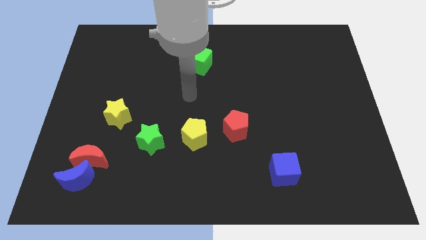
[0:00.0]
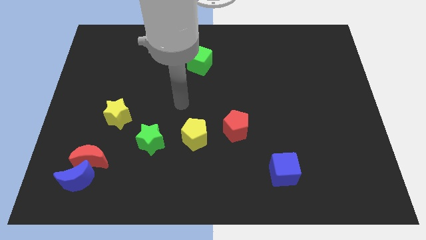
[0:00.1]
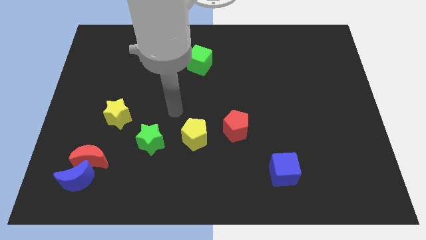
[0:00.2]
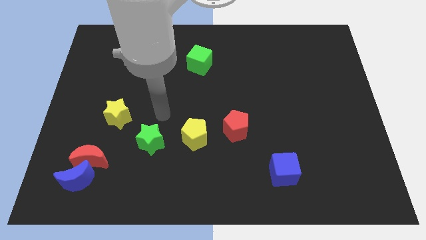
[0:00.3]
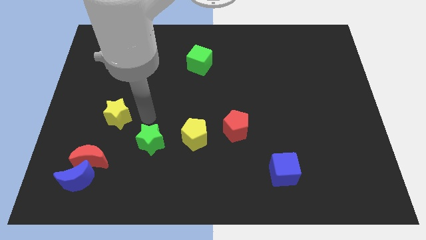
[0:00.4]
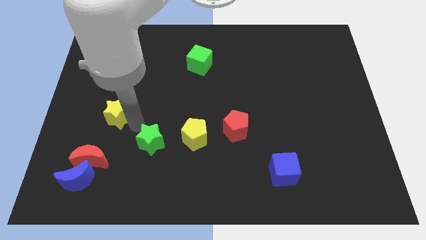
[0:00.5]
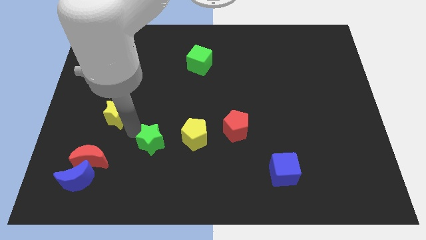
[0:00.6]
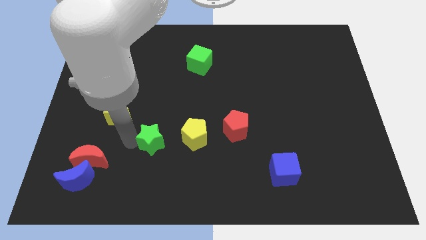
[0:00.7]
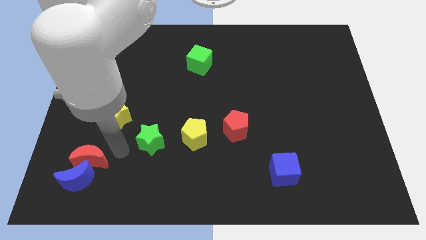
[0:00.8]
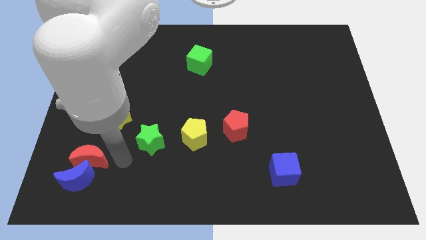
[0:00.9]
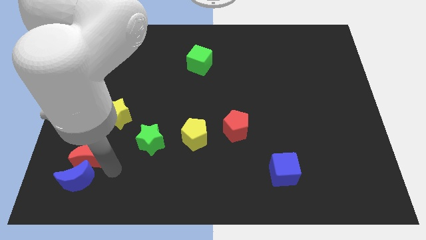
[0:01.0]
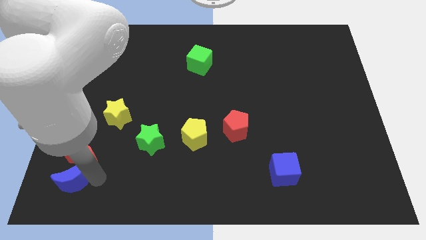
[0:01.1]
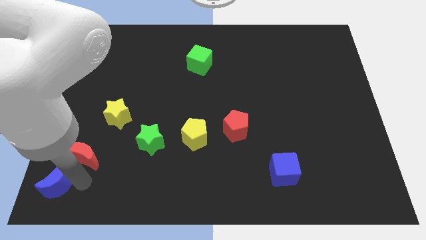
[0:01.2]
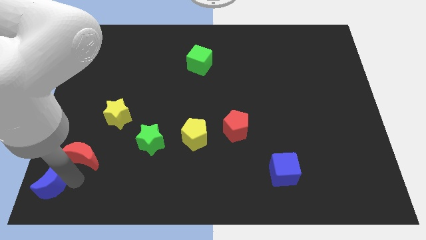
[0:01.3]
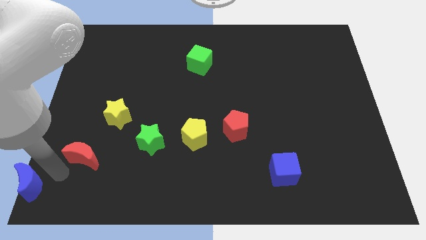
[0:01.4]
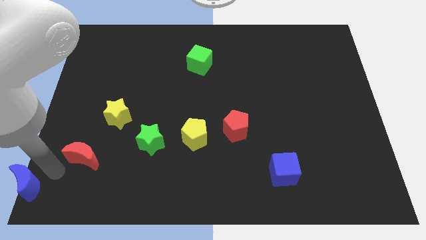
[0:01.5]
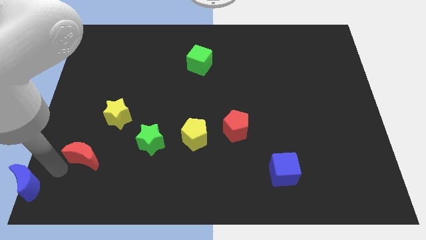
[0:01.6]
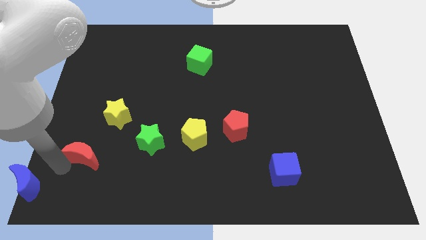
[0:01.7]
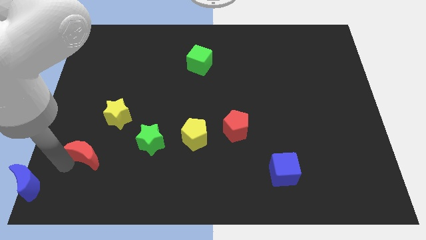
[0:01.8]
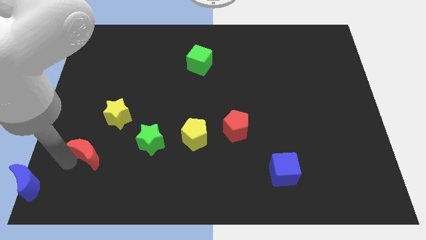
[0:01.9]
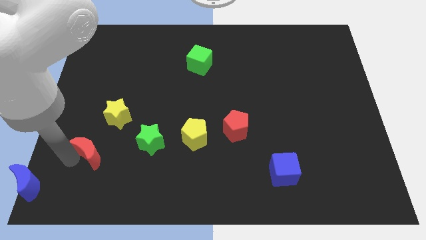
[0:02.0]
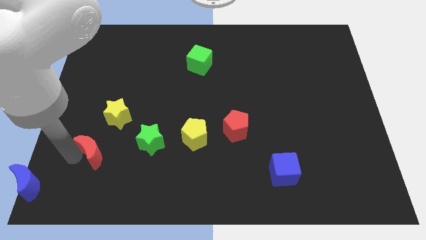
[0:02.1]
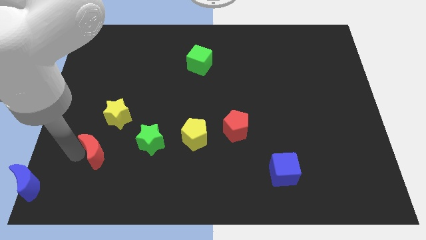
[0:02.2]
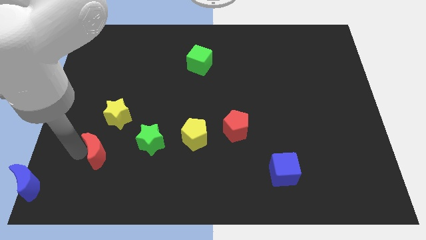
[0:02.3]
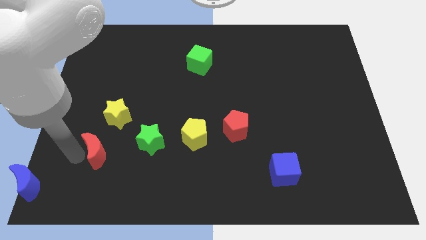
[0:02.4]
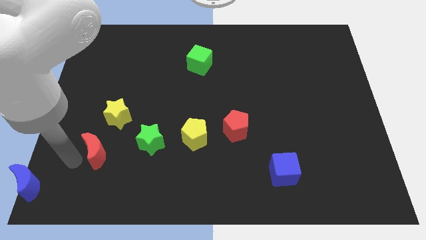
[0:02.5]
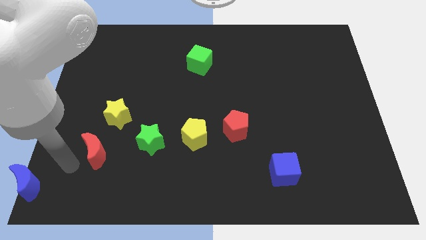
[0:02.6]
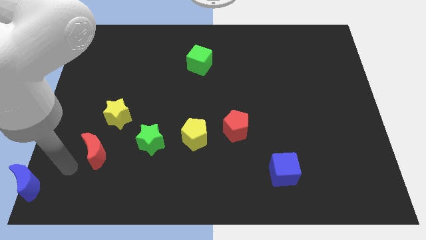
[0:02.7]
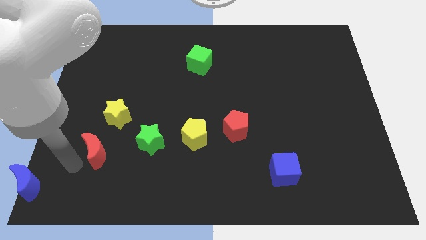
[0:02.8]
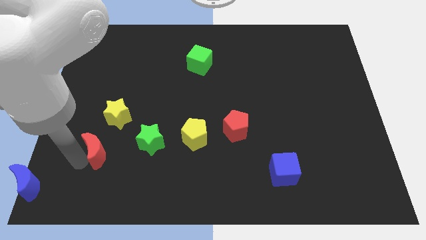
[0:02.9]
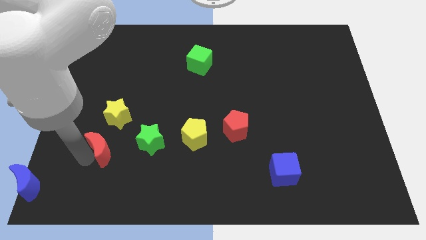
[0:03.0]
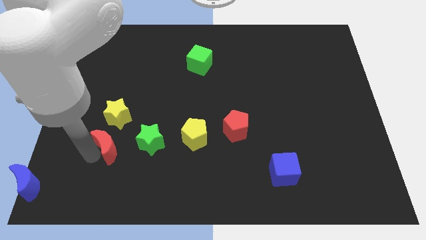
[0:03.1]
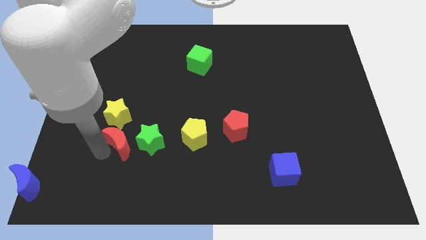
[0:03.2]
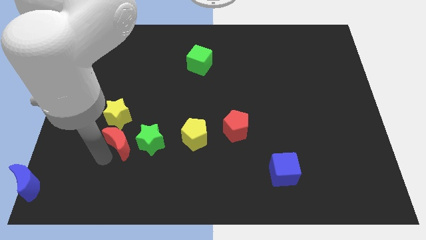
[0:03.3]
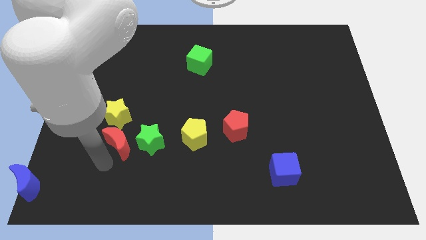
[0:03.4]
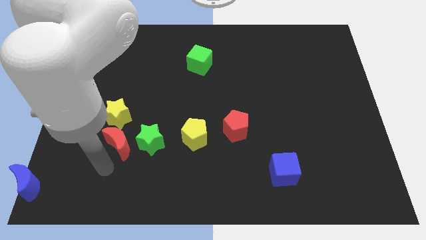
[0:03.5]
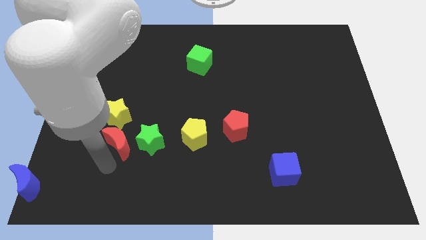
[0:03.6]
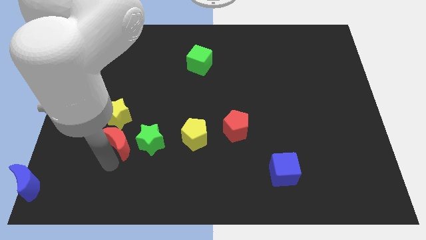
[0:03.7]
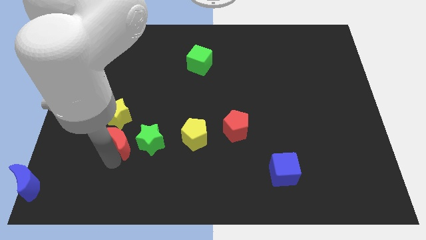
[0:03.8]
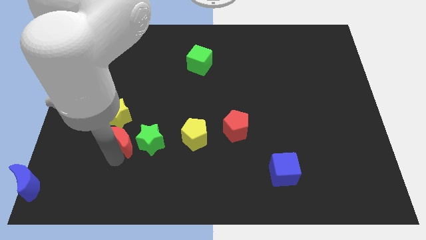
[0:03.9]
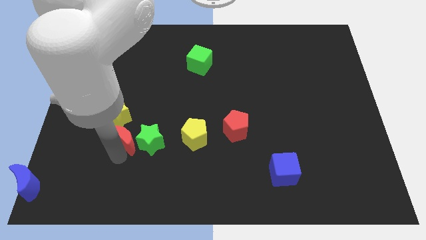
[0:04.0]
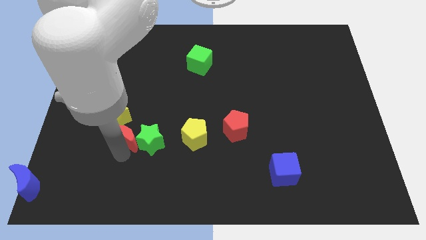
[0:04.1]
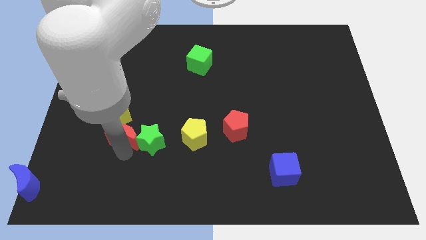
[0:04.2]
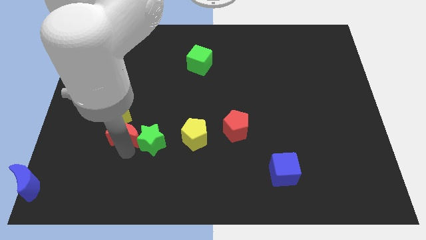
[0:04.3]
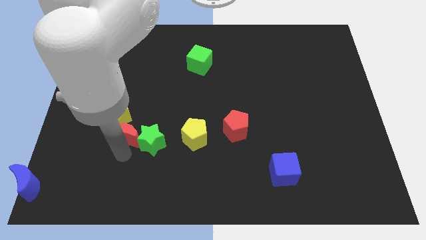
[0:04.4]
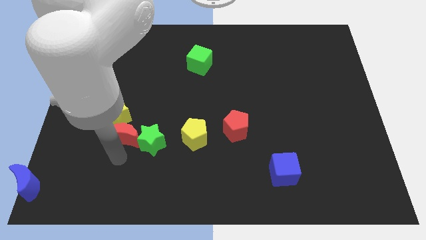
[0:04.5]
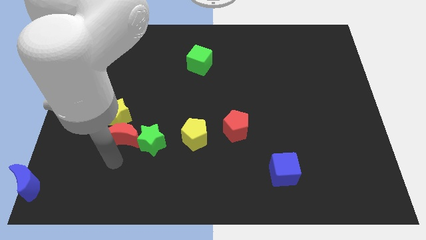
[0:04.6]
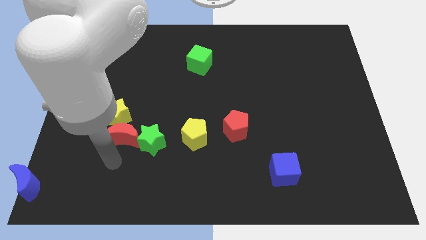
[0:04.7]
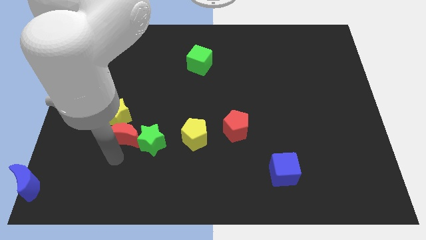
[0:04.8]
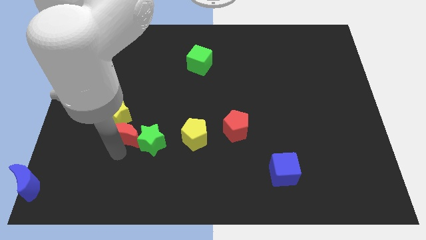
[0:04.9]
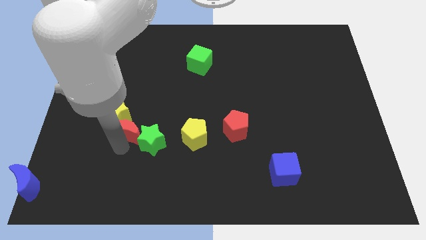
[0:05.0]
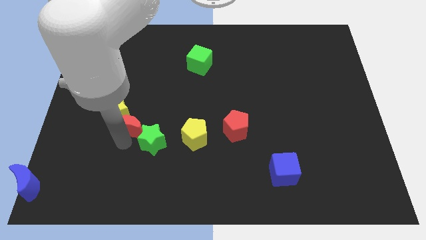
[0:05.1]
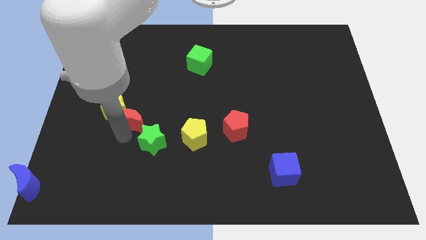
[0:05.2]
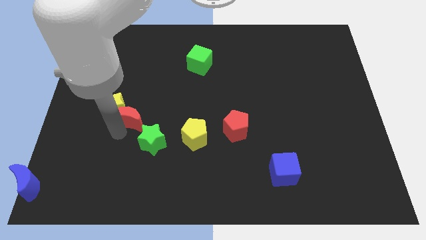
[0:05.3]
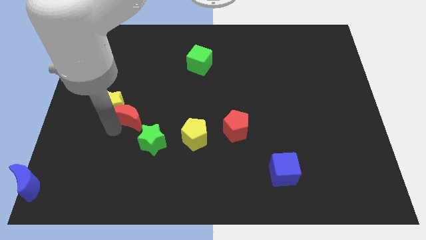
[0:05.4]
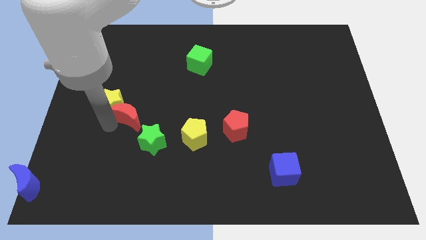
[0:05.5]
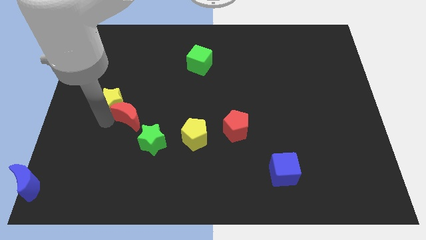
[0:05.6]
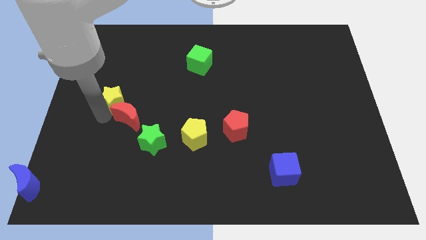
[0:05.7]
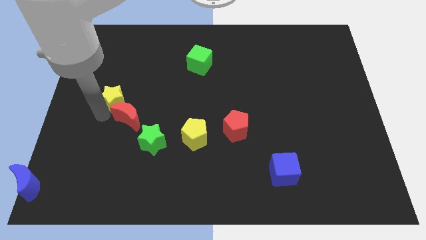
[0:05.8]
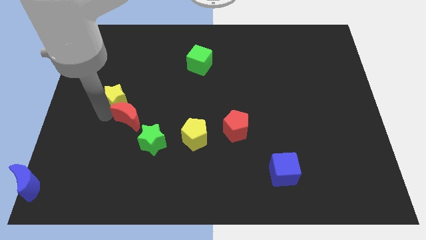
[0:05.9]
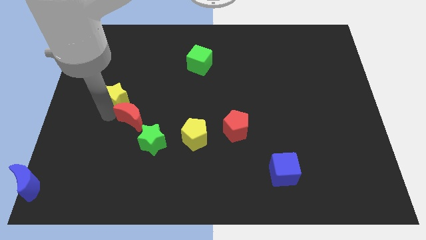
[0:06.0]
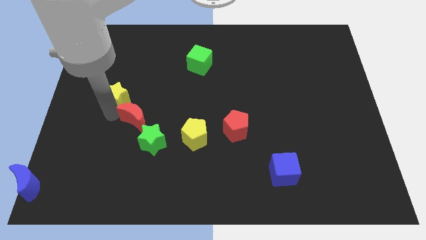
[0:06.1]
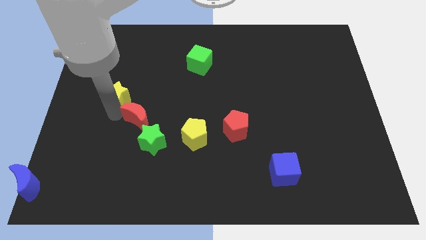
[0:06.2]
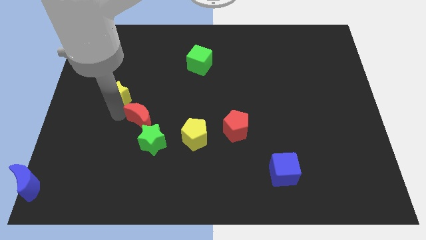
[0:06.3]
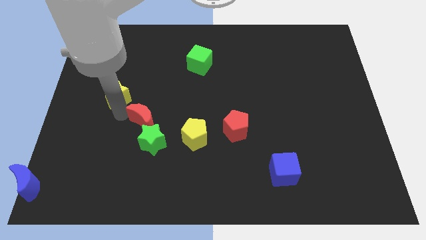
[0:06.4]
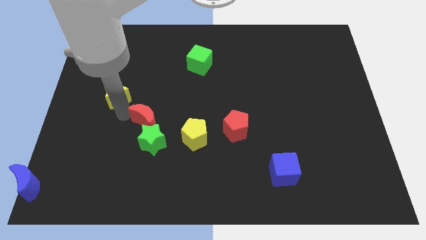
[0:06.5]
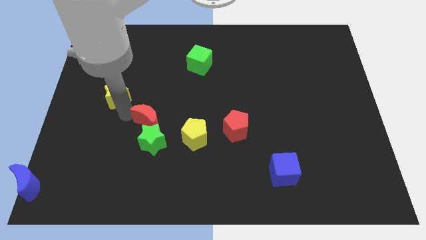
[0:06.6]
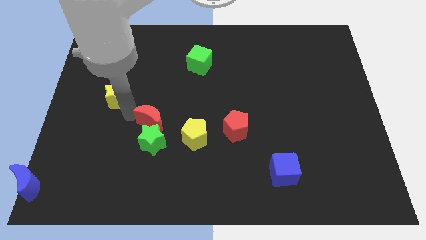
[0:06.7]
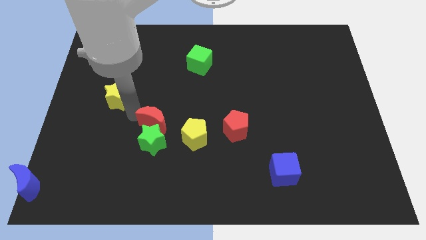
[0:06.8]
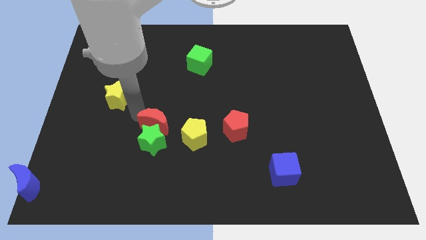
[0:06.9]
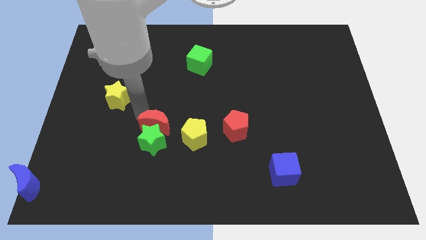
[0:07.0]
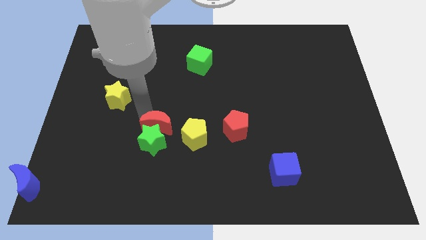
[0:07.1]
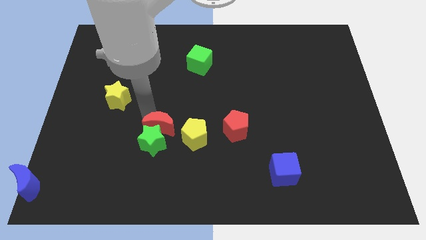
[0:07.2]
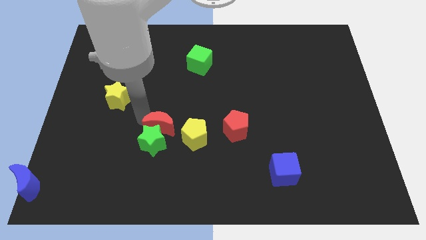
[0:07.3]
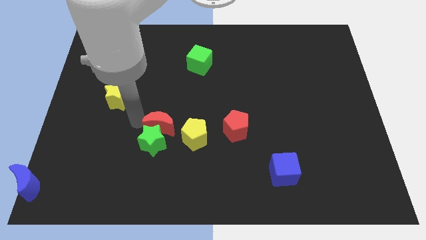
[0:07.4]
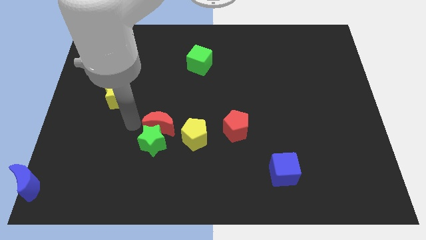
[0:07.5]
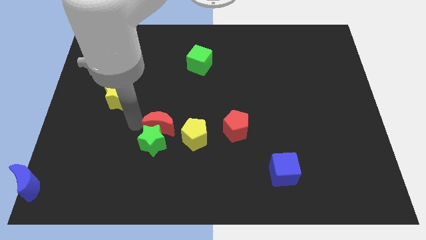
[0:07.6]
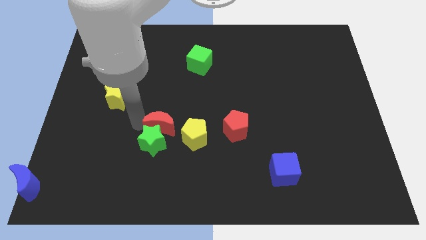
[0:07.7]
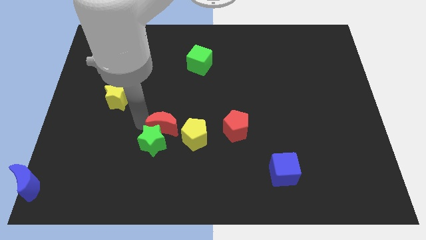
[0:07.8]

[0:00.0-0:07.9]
put the red moon just left of the red pentagon
